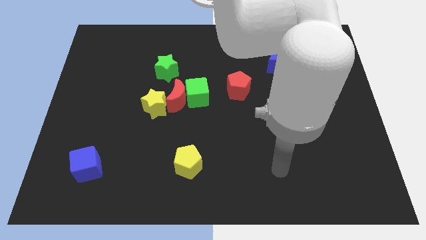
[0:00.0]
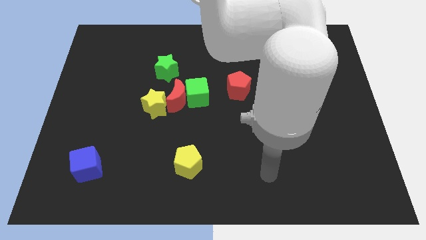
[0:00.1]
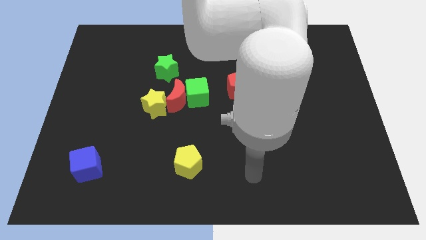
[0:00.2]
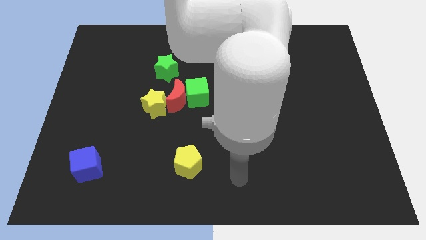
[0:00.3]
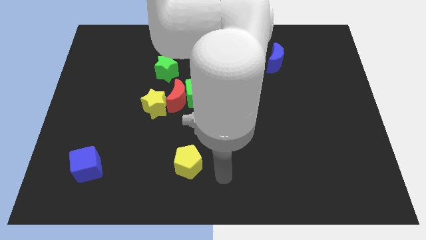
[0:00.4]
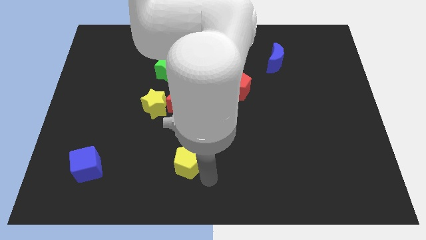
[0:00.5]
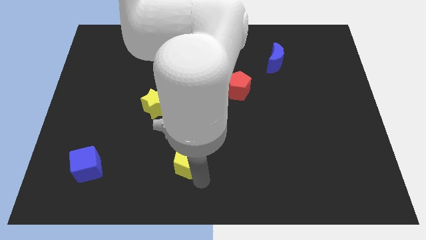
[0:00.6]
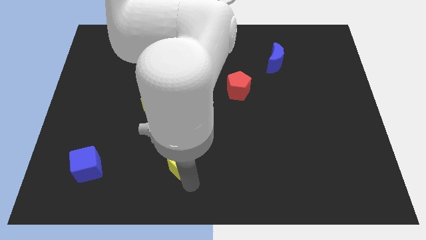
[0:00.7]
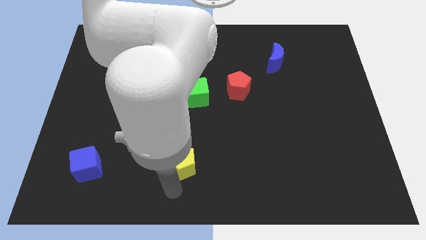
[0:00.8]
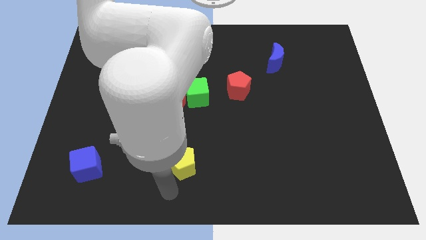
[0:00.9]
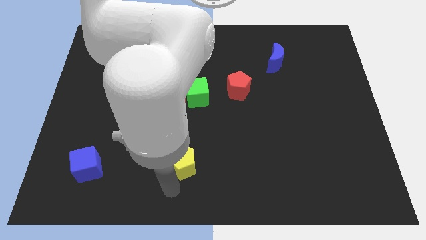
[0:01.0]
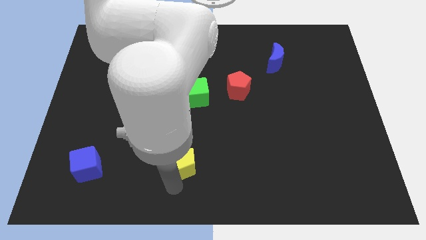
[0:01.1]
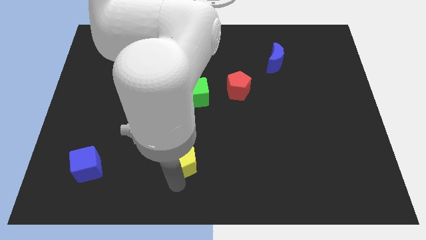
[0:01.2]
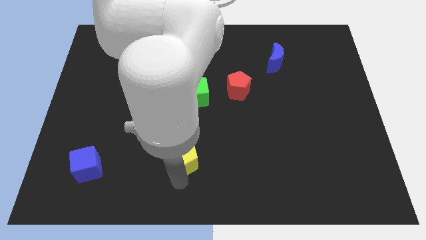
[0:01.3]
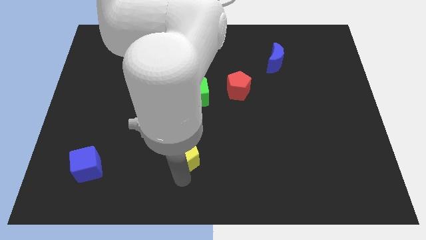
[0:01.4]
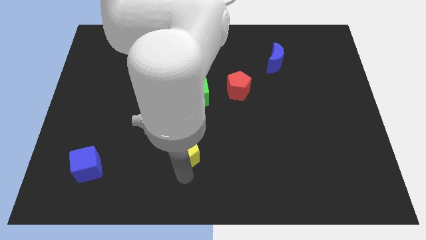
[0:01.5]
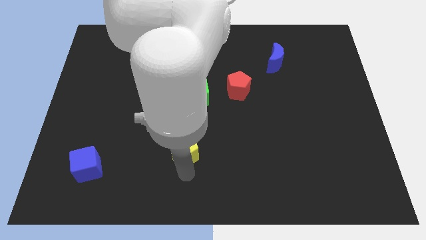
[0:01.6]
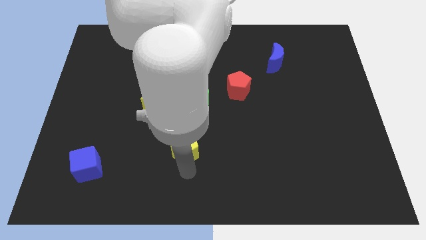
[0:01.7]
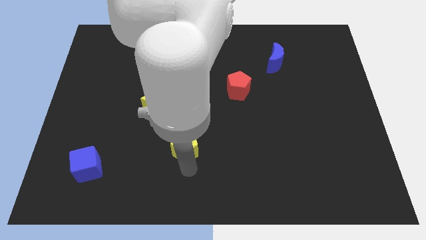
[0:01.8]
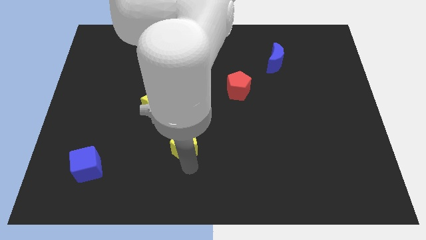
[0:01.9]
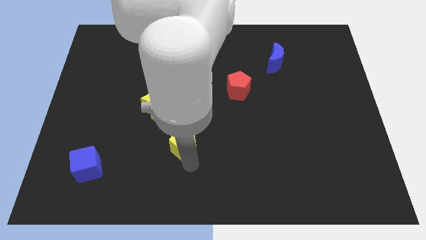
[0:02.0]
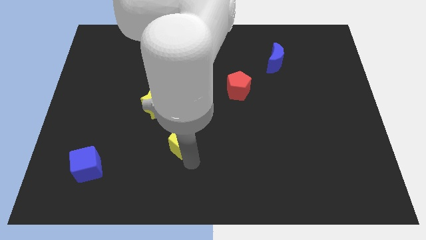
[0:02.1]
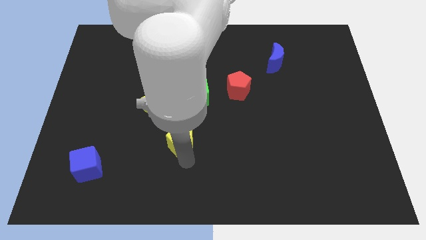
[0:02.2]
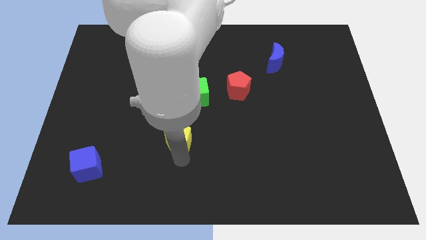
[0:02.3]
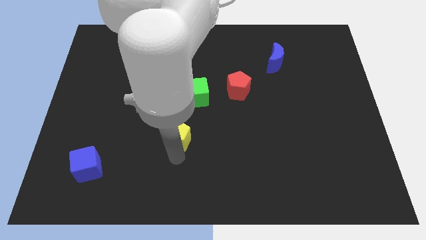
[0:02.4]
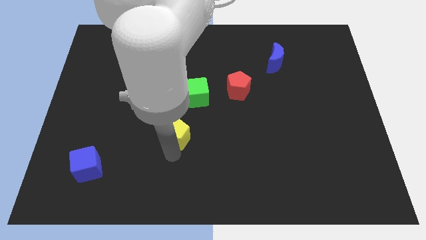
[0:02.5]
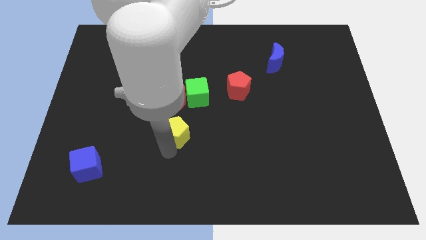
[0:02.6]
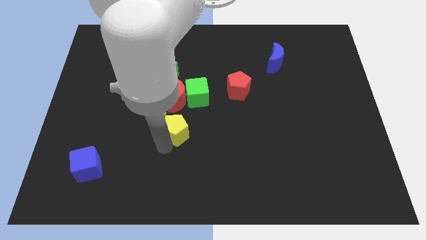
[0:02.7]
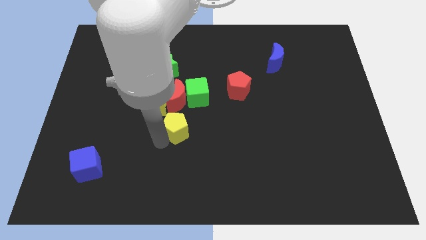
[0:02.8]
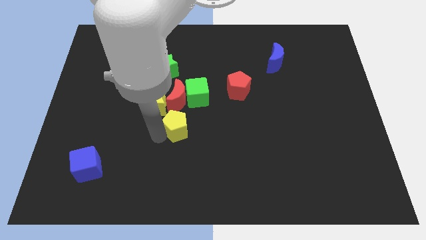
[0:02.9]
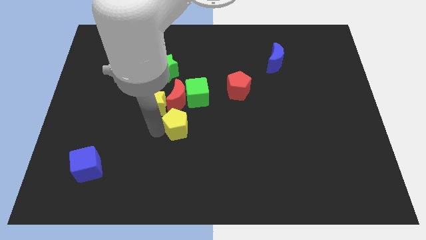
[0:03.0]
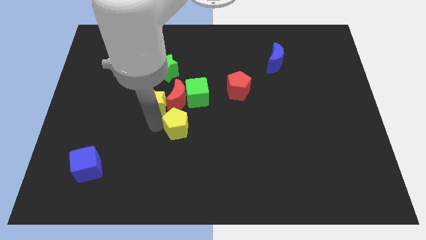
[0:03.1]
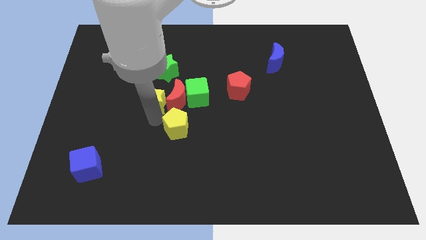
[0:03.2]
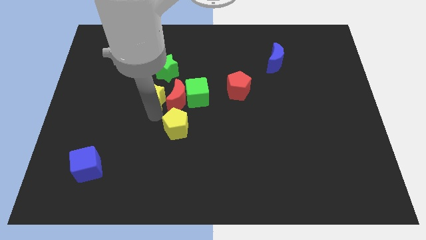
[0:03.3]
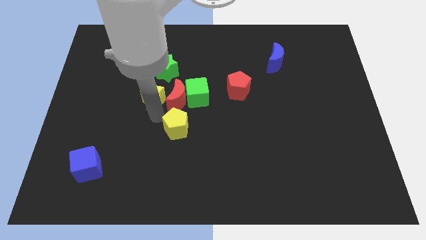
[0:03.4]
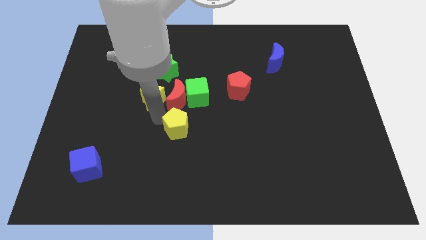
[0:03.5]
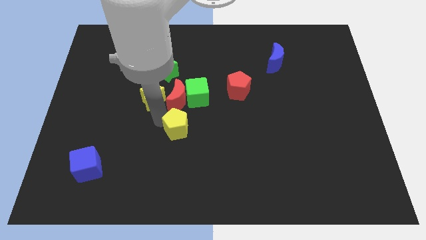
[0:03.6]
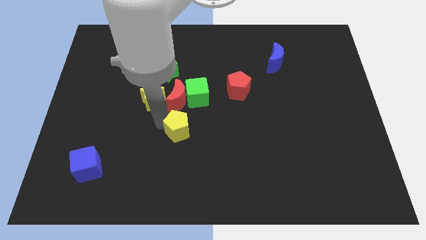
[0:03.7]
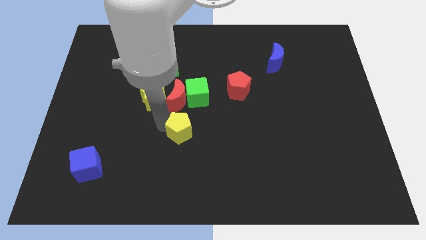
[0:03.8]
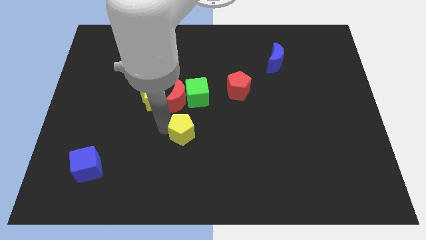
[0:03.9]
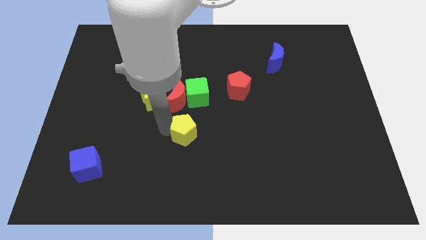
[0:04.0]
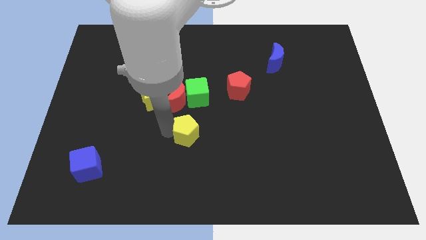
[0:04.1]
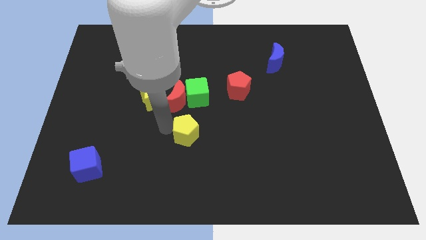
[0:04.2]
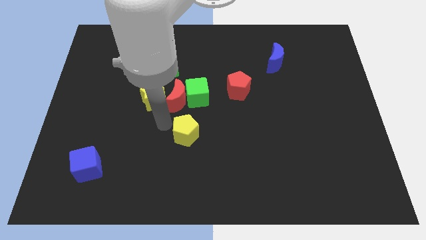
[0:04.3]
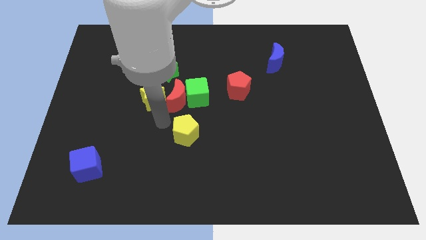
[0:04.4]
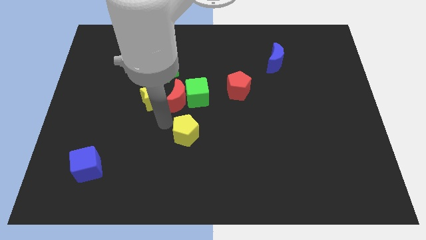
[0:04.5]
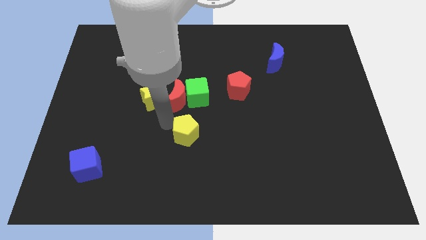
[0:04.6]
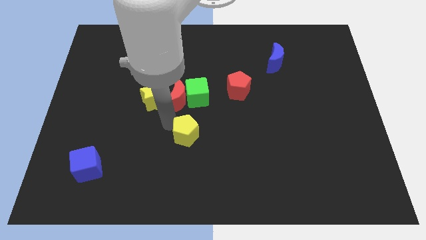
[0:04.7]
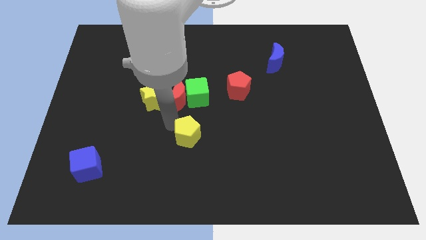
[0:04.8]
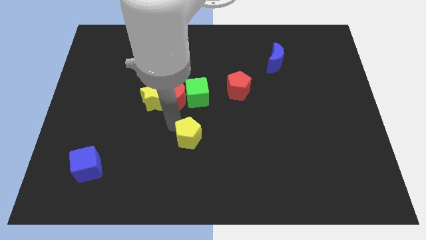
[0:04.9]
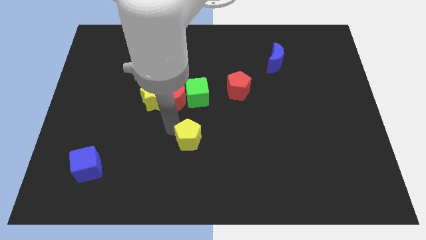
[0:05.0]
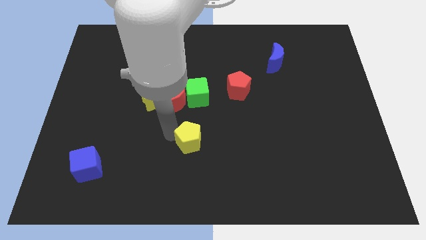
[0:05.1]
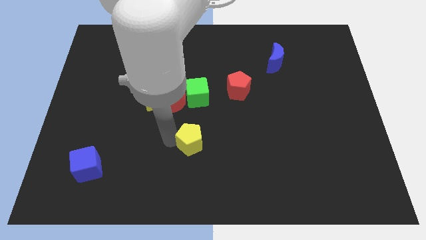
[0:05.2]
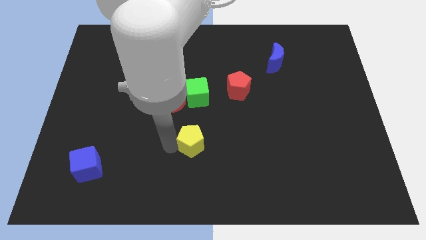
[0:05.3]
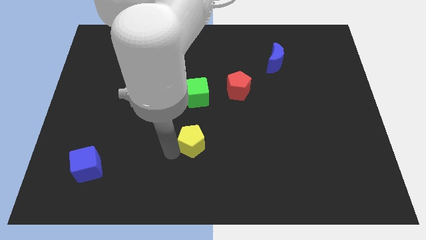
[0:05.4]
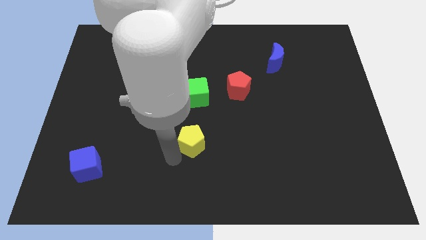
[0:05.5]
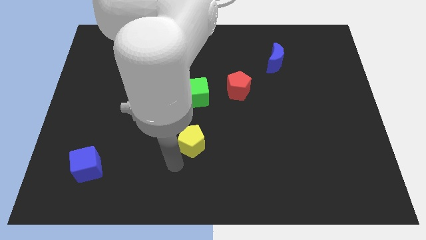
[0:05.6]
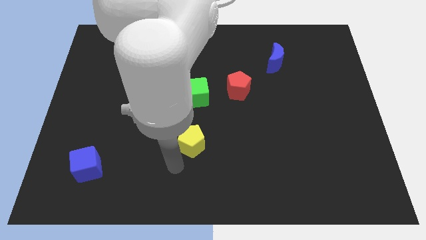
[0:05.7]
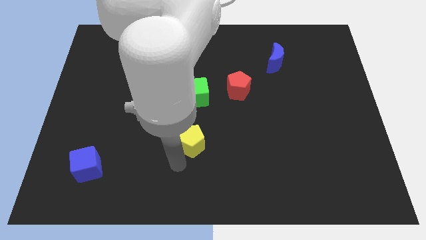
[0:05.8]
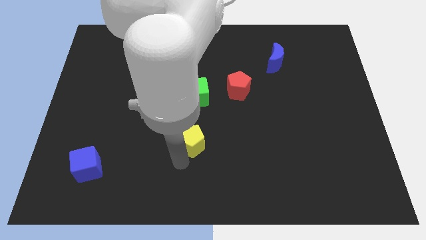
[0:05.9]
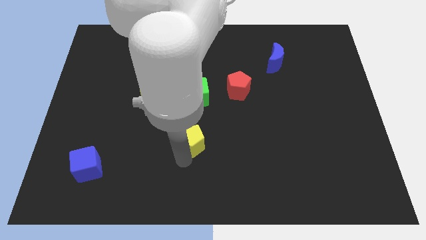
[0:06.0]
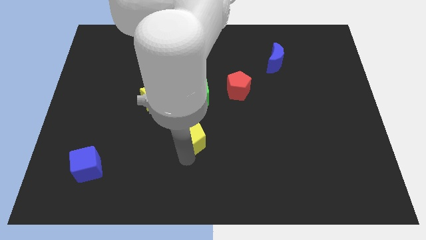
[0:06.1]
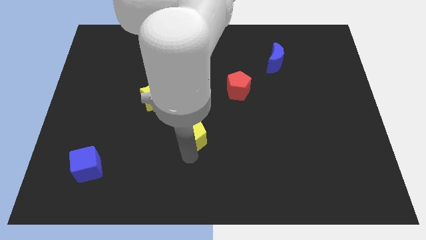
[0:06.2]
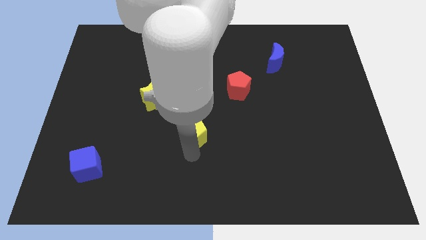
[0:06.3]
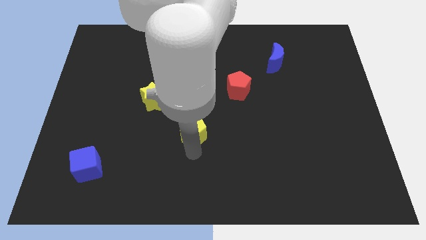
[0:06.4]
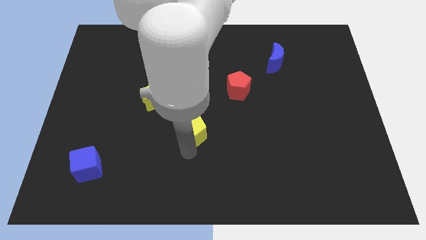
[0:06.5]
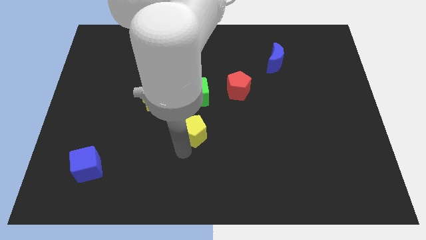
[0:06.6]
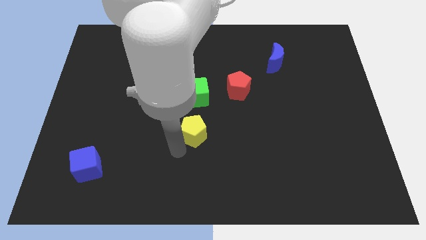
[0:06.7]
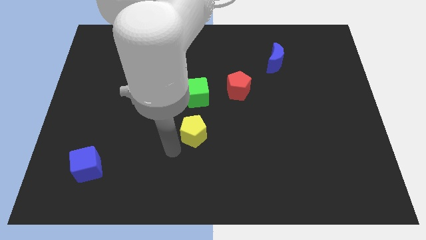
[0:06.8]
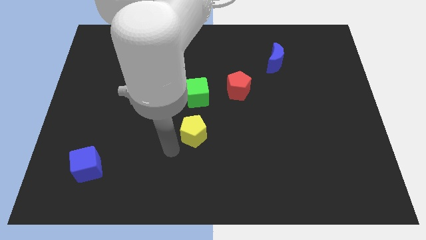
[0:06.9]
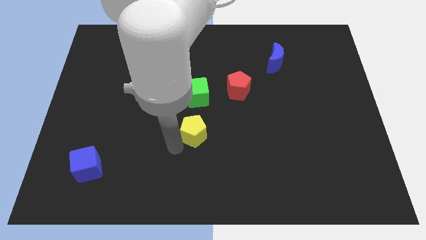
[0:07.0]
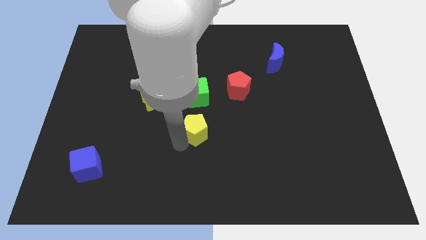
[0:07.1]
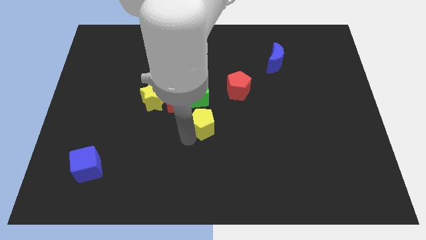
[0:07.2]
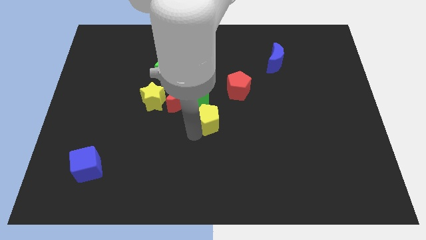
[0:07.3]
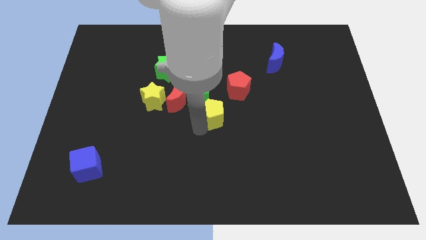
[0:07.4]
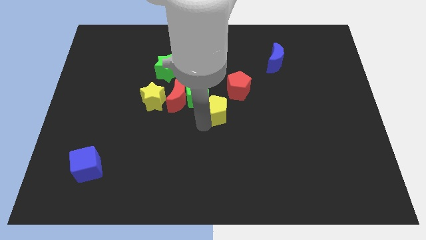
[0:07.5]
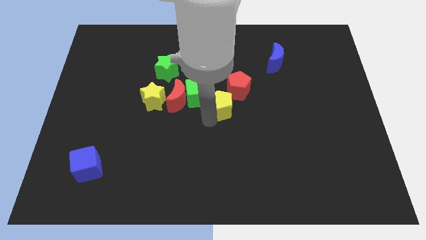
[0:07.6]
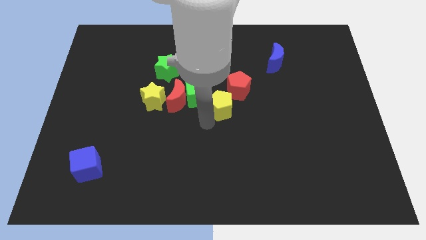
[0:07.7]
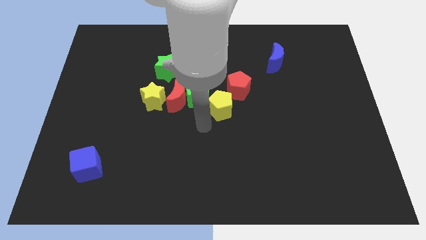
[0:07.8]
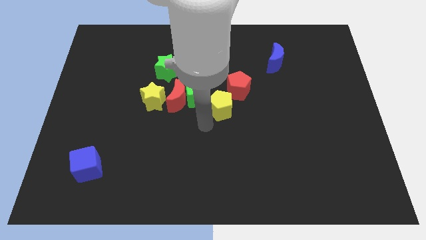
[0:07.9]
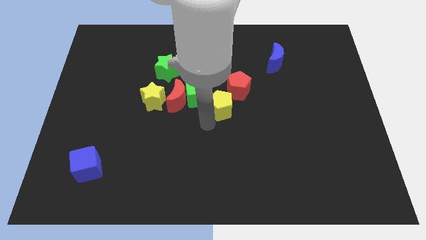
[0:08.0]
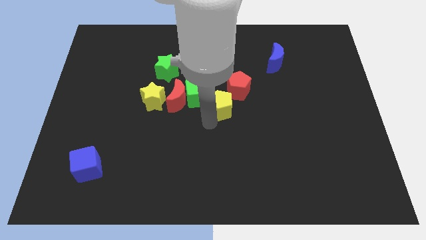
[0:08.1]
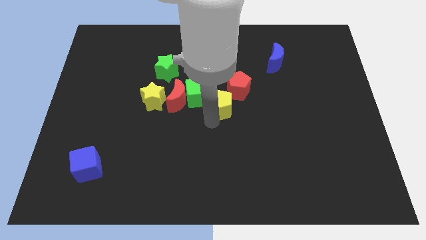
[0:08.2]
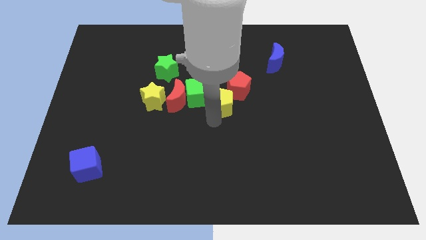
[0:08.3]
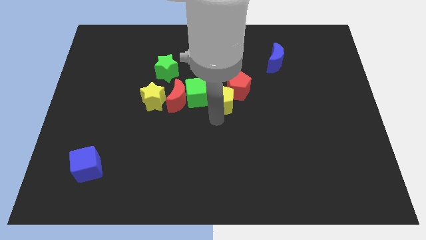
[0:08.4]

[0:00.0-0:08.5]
push the yellow pentagon close to the red pentagon
